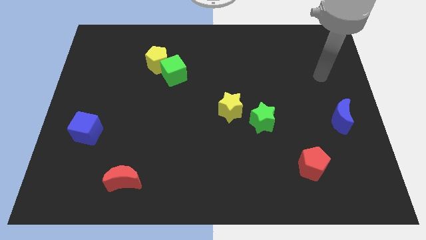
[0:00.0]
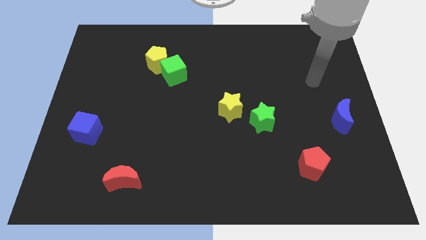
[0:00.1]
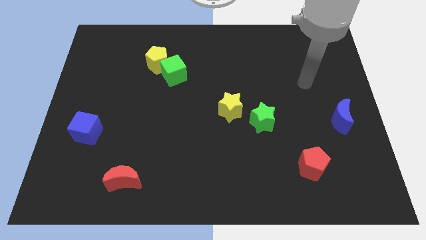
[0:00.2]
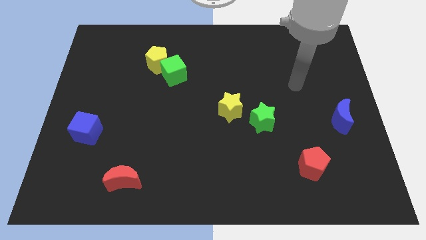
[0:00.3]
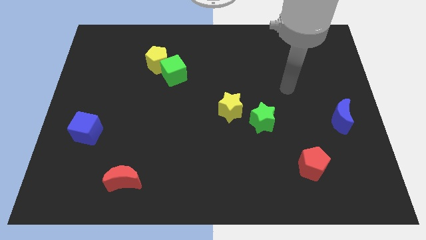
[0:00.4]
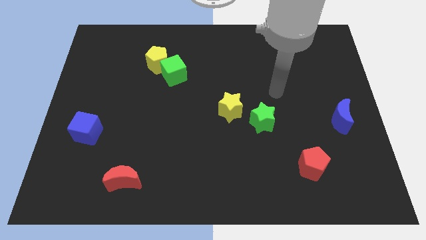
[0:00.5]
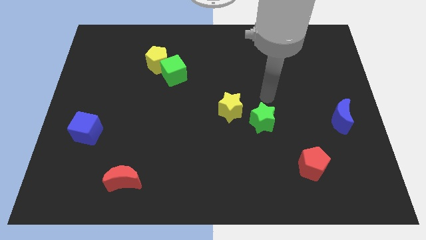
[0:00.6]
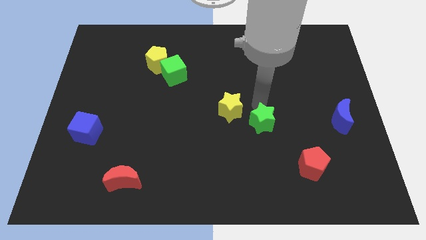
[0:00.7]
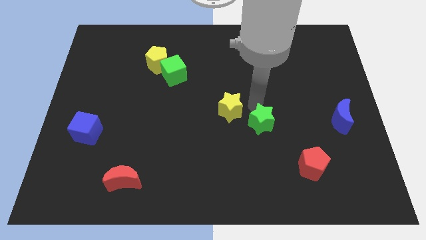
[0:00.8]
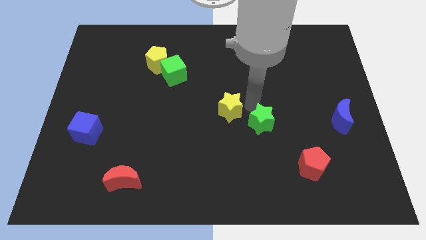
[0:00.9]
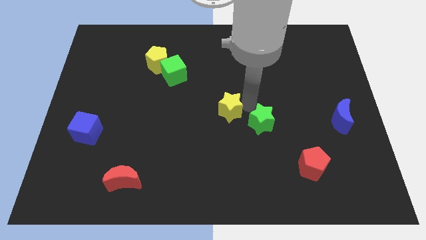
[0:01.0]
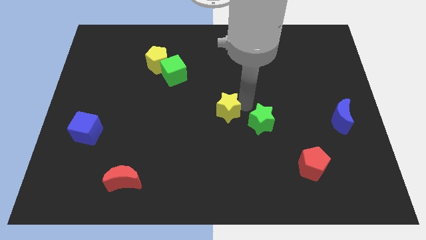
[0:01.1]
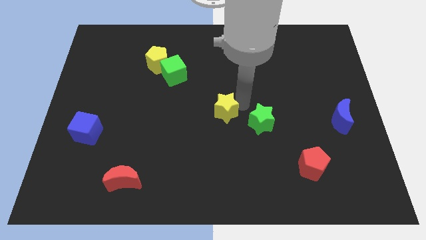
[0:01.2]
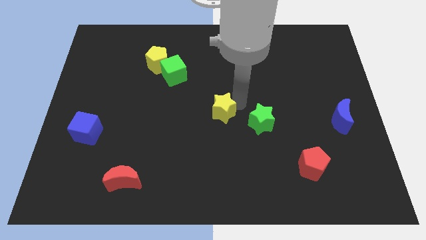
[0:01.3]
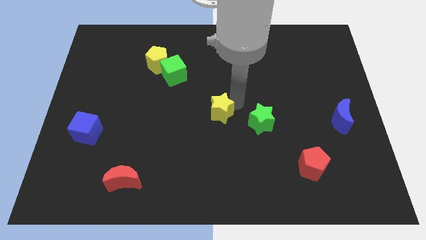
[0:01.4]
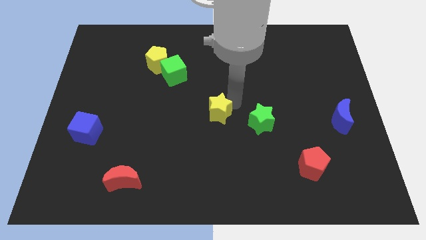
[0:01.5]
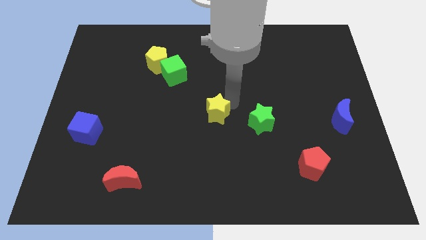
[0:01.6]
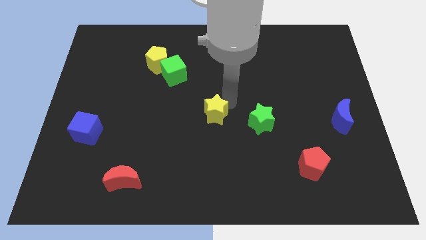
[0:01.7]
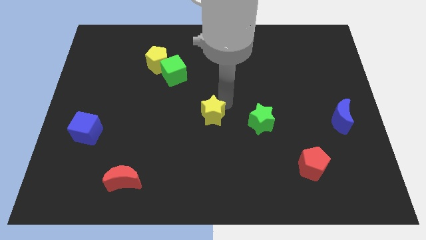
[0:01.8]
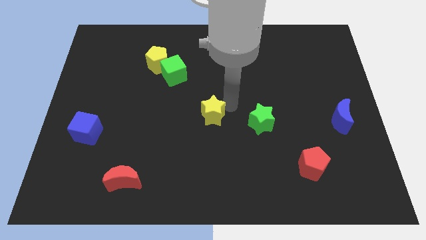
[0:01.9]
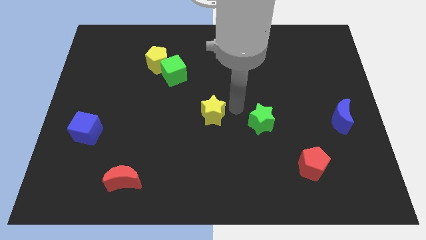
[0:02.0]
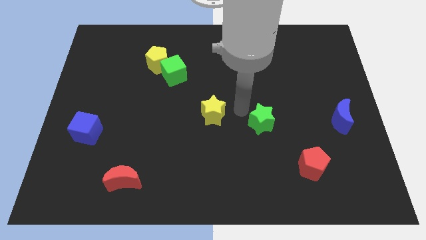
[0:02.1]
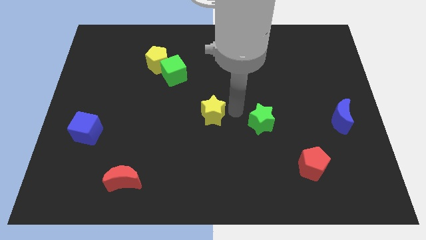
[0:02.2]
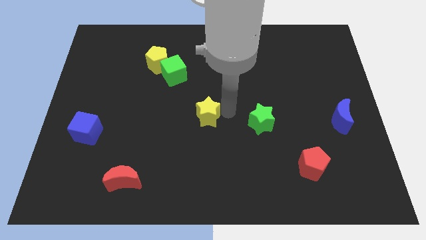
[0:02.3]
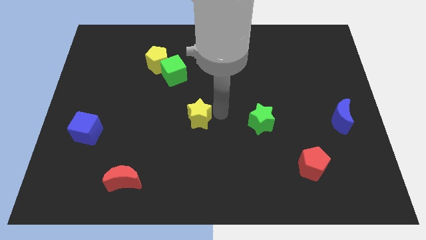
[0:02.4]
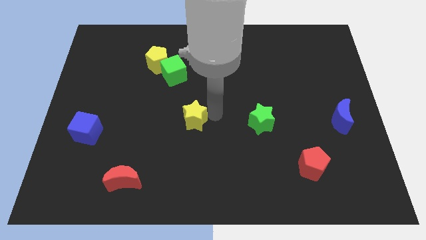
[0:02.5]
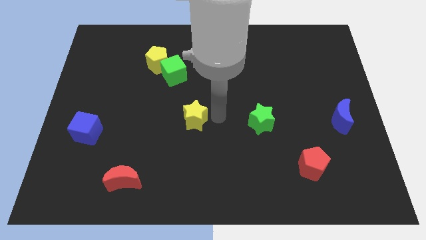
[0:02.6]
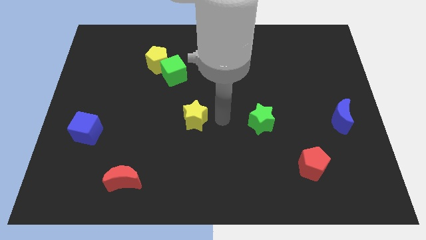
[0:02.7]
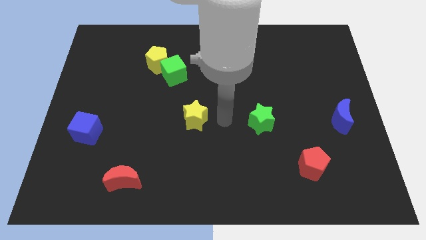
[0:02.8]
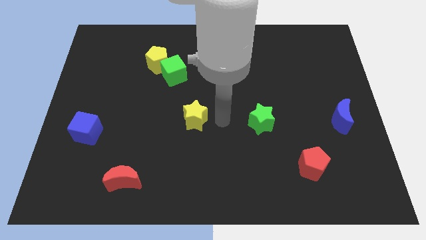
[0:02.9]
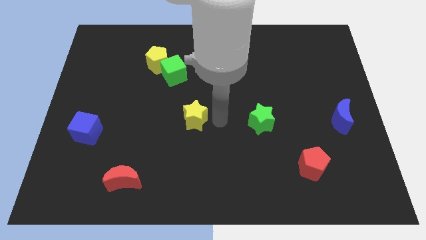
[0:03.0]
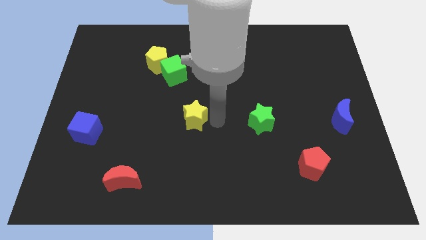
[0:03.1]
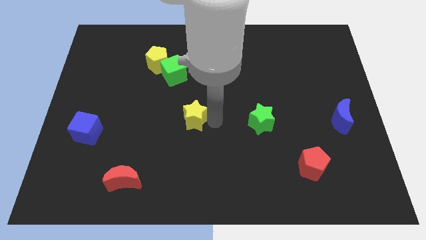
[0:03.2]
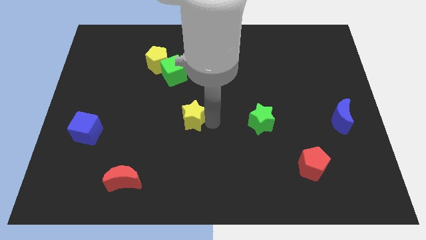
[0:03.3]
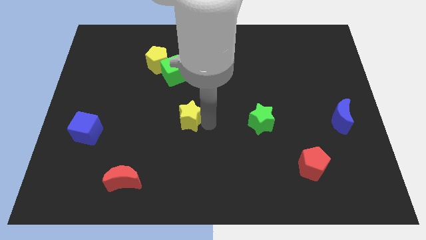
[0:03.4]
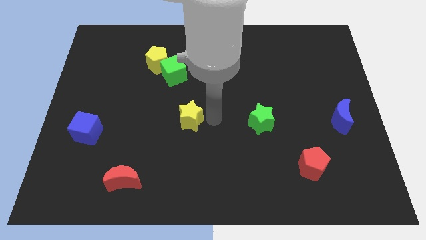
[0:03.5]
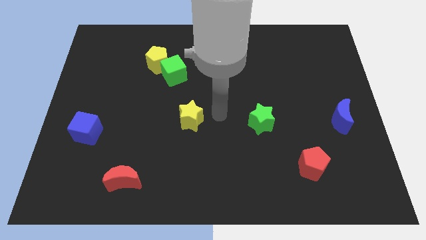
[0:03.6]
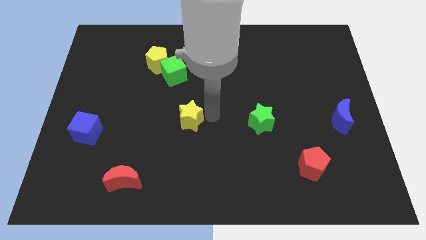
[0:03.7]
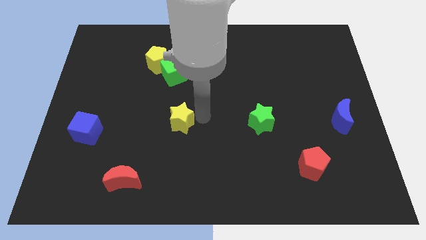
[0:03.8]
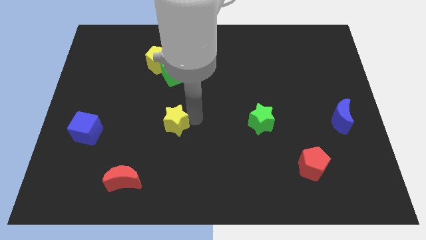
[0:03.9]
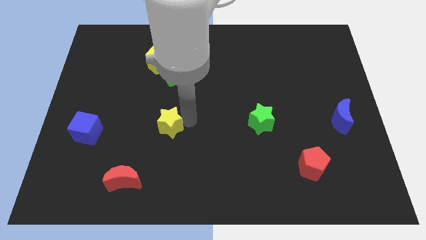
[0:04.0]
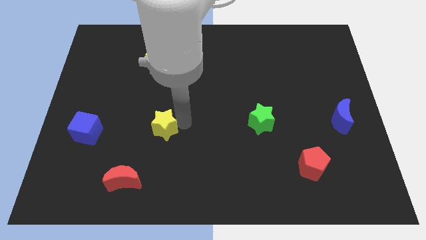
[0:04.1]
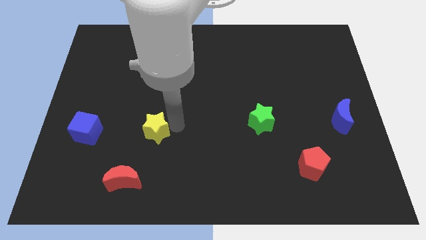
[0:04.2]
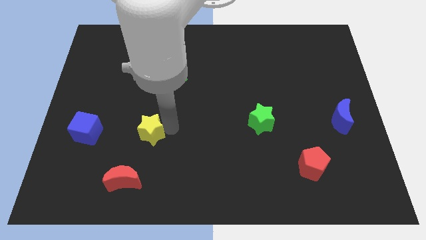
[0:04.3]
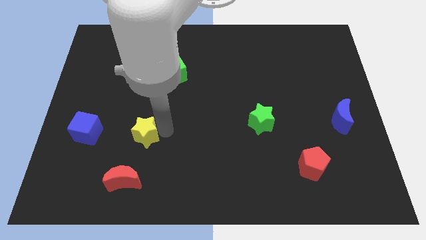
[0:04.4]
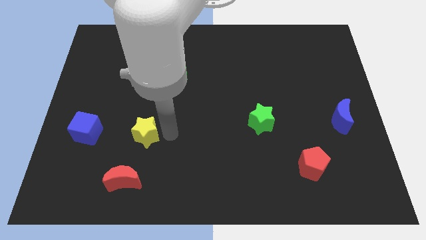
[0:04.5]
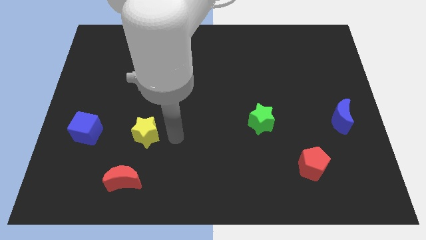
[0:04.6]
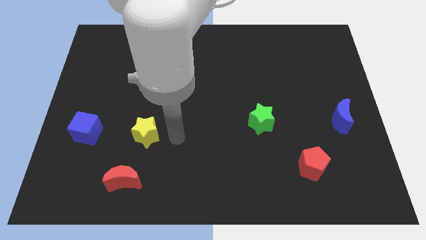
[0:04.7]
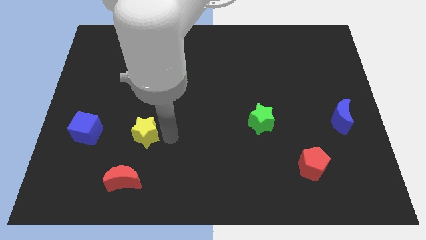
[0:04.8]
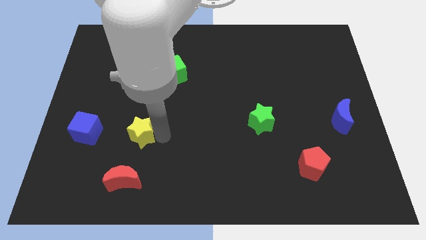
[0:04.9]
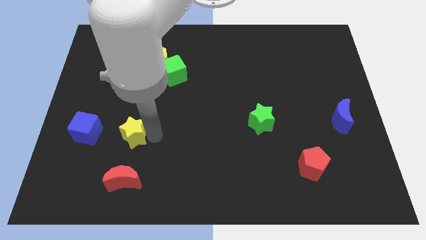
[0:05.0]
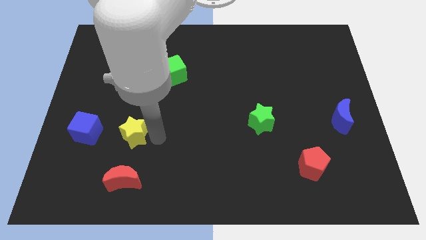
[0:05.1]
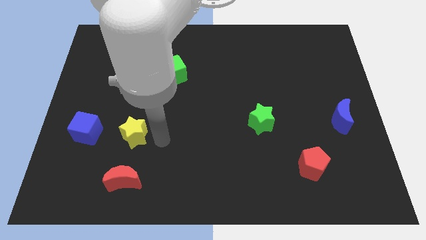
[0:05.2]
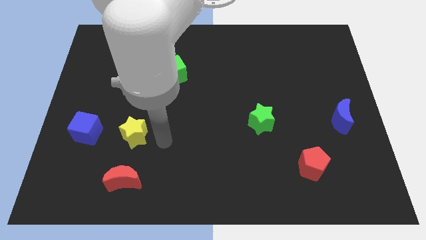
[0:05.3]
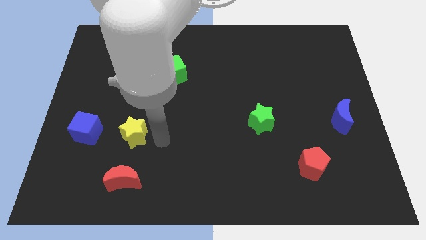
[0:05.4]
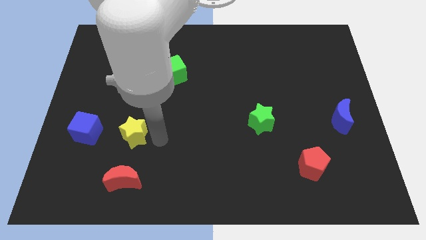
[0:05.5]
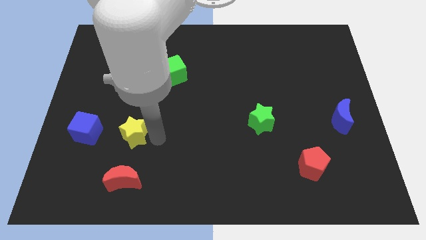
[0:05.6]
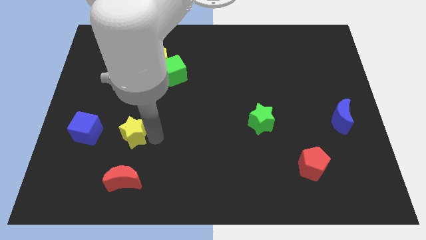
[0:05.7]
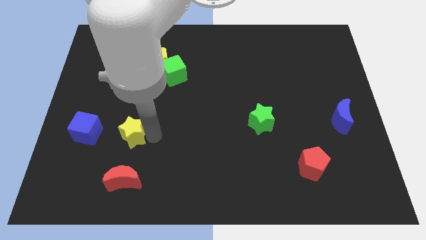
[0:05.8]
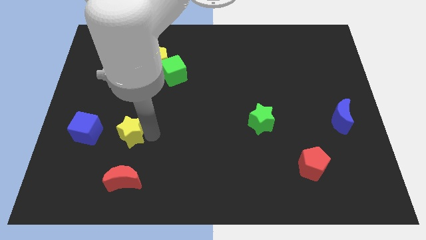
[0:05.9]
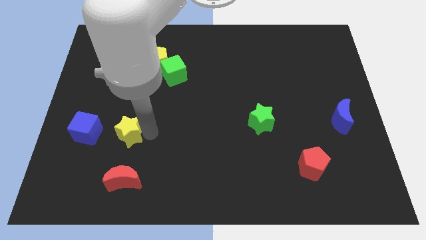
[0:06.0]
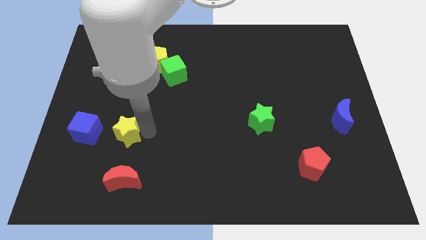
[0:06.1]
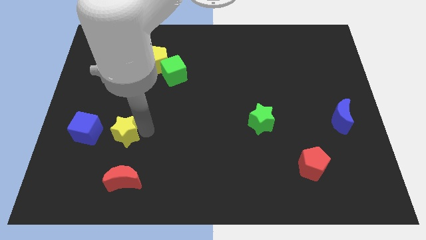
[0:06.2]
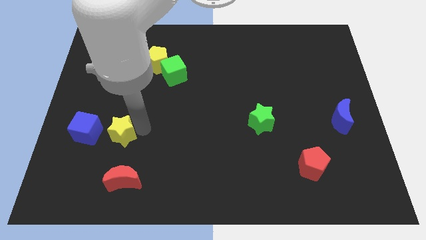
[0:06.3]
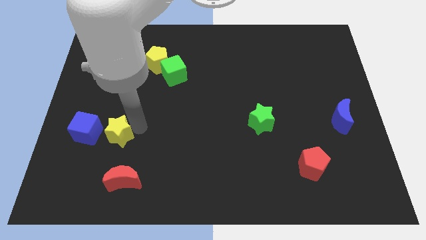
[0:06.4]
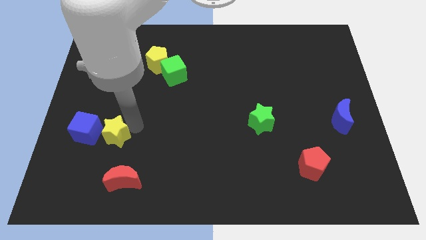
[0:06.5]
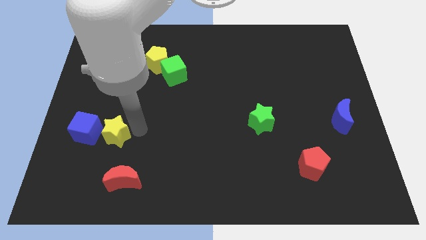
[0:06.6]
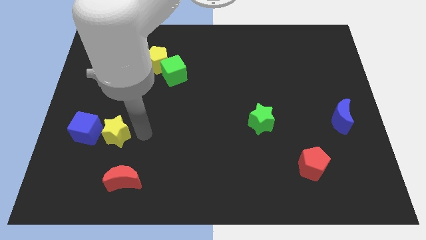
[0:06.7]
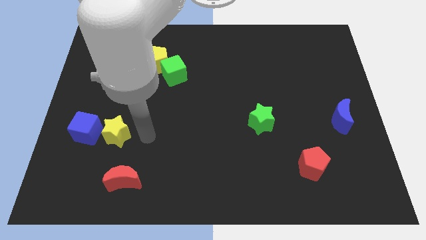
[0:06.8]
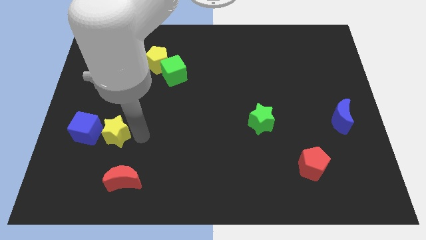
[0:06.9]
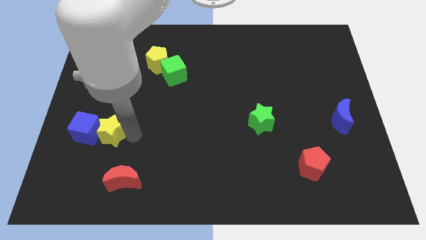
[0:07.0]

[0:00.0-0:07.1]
put the yellow star to the blue cube
